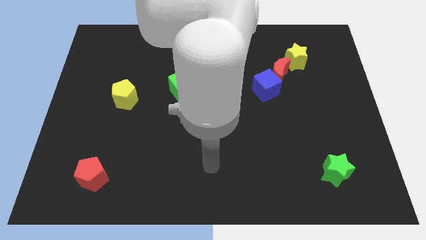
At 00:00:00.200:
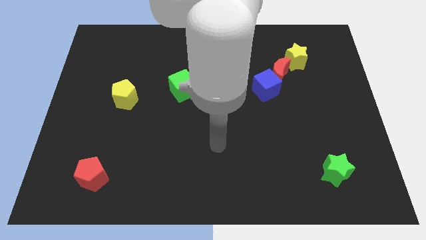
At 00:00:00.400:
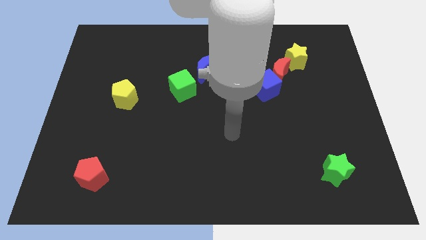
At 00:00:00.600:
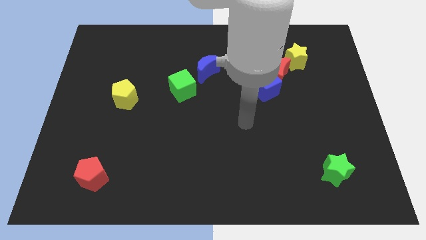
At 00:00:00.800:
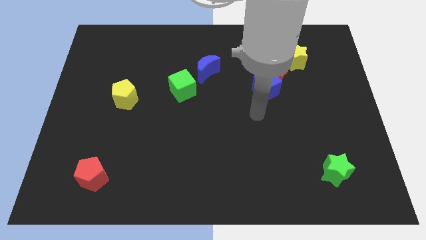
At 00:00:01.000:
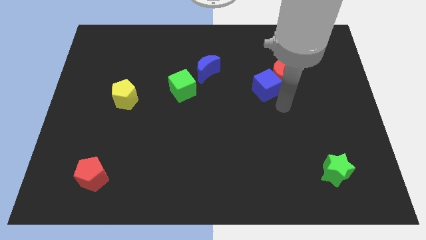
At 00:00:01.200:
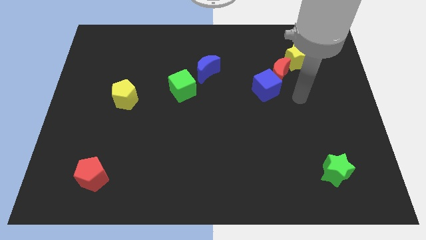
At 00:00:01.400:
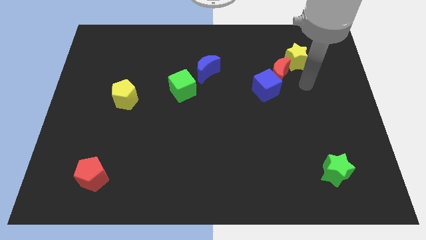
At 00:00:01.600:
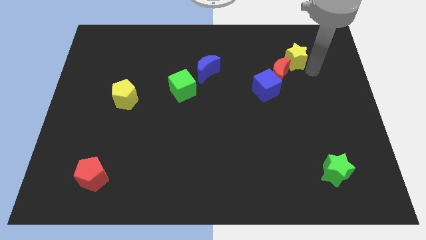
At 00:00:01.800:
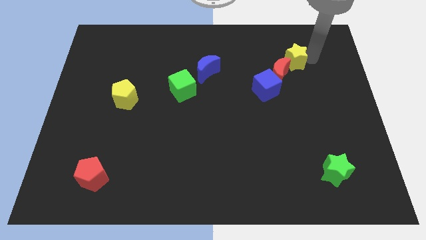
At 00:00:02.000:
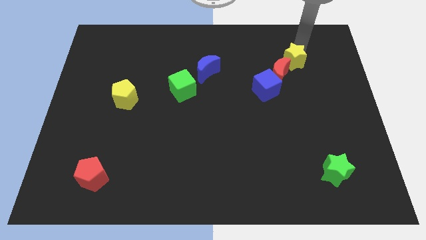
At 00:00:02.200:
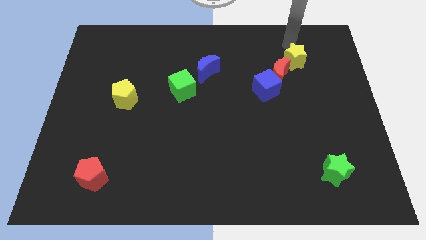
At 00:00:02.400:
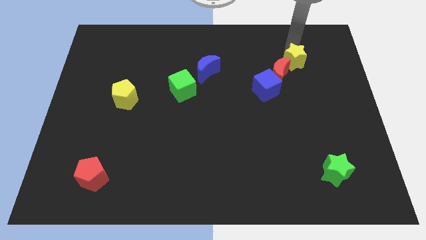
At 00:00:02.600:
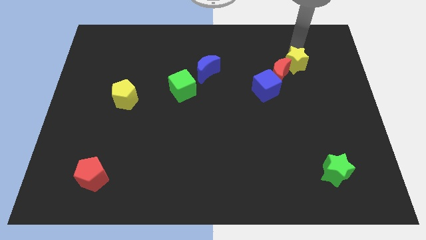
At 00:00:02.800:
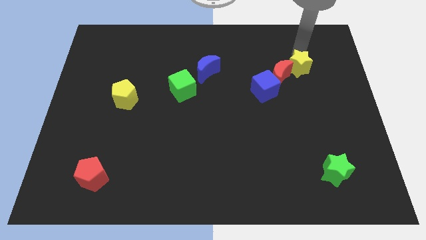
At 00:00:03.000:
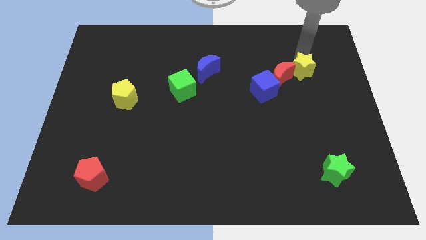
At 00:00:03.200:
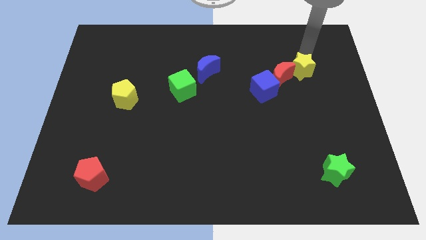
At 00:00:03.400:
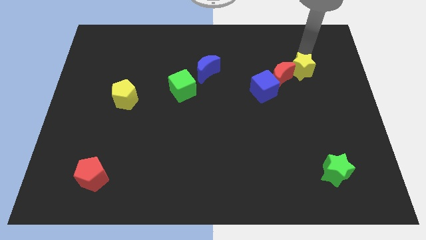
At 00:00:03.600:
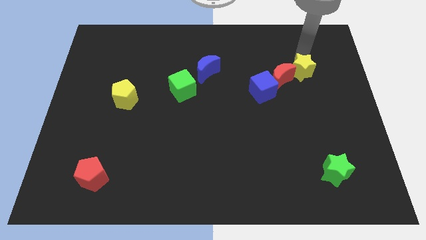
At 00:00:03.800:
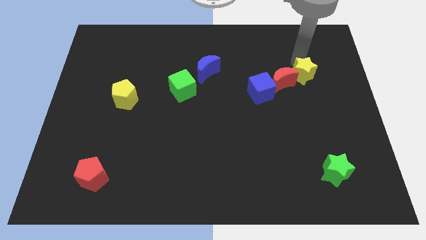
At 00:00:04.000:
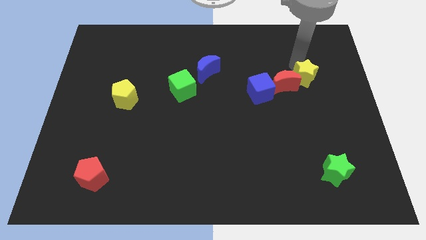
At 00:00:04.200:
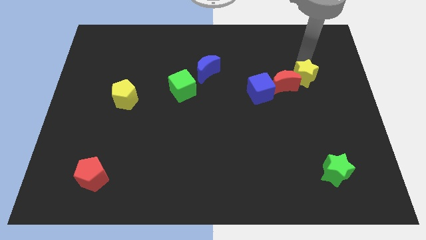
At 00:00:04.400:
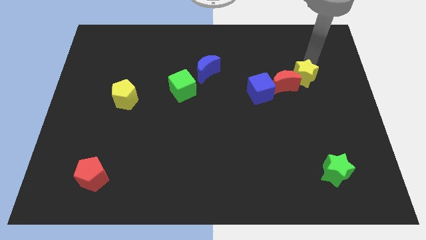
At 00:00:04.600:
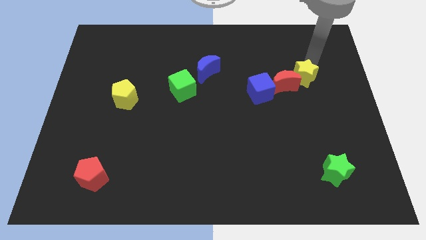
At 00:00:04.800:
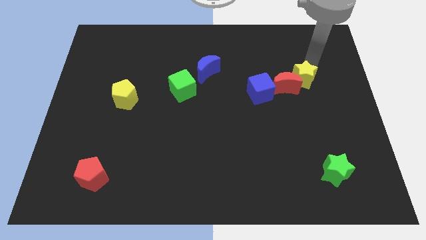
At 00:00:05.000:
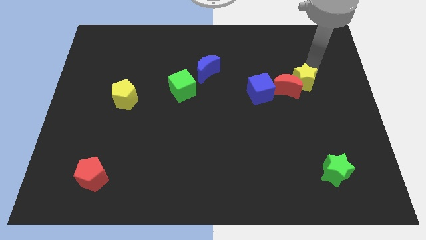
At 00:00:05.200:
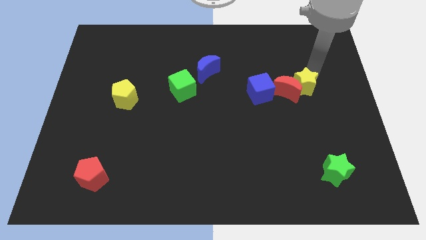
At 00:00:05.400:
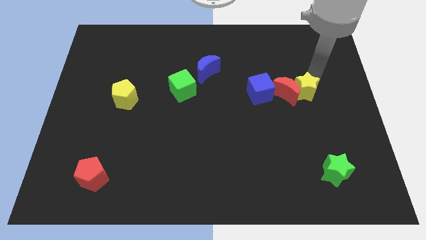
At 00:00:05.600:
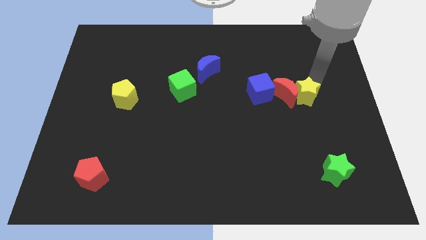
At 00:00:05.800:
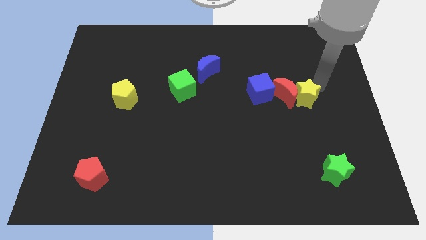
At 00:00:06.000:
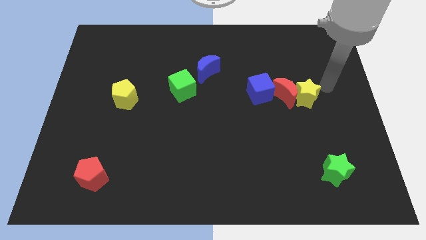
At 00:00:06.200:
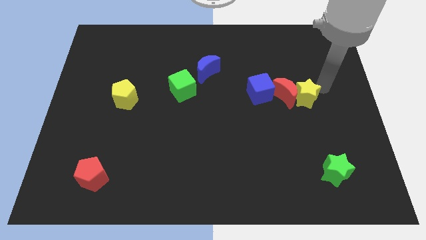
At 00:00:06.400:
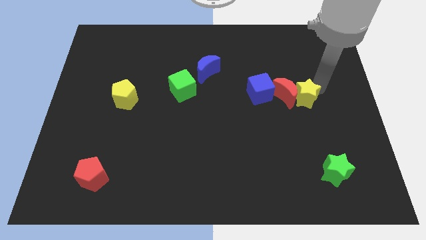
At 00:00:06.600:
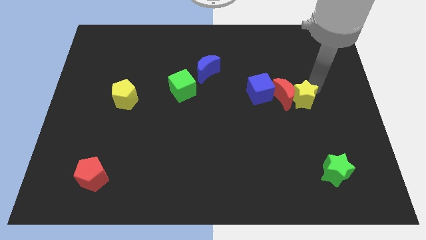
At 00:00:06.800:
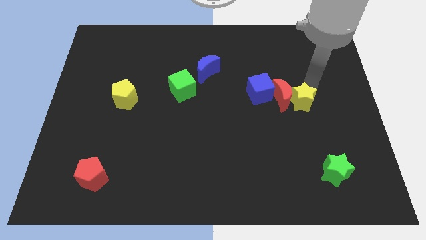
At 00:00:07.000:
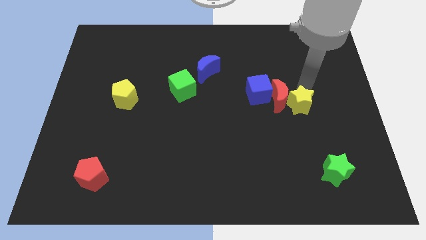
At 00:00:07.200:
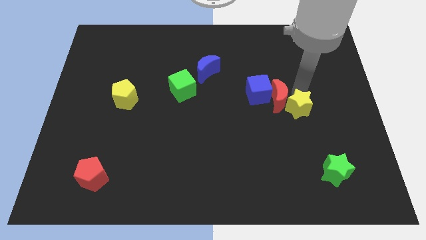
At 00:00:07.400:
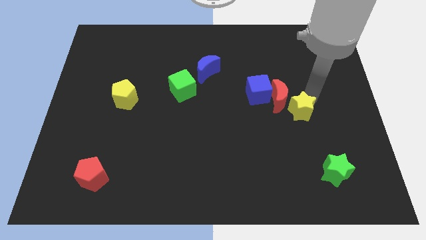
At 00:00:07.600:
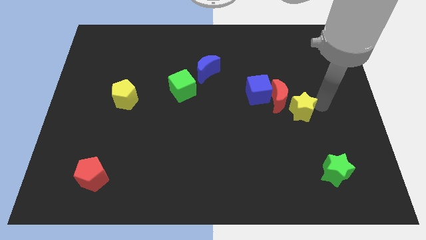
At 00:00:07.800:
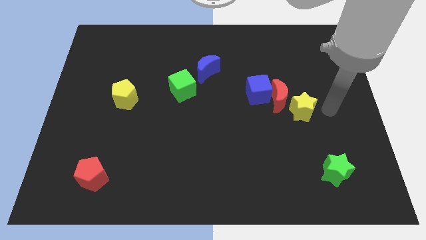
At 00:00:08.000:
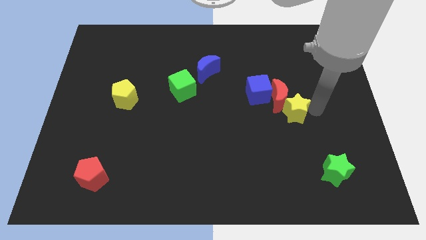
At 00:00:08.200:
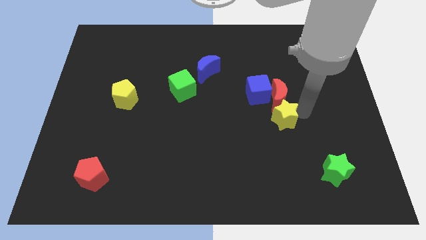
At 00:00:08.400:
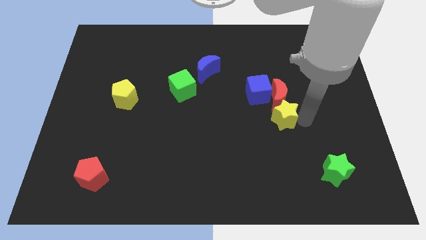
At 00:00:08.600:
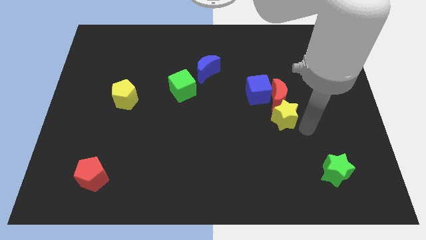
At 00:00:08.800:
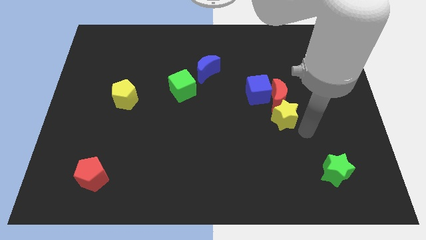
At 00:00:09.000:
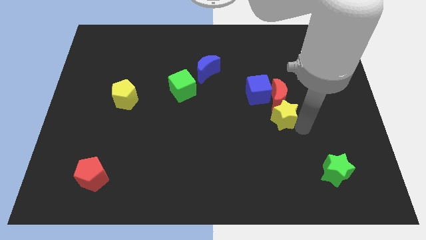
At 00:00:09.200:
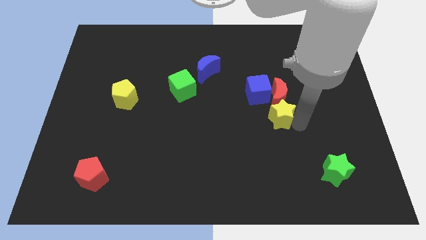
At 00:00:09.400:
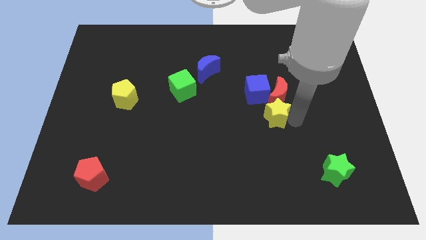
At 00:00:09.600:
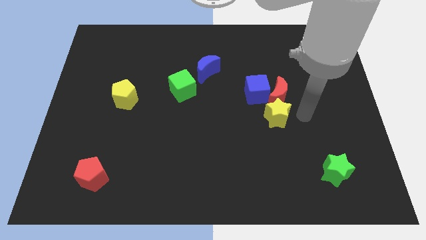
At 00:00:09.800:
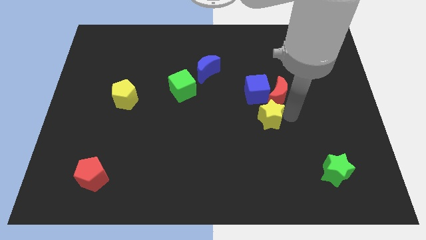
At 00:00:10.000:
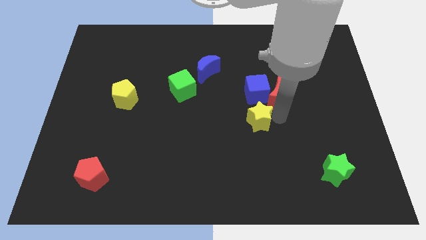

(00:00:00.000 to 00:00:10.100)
push the yellow star diagonally down and left

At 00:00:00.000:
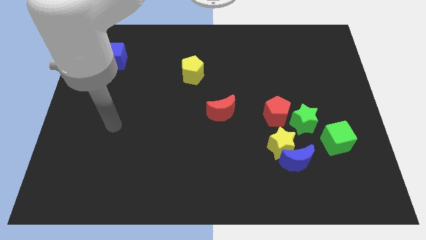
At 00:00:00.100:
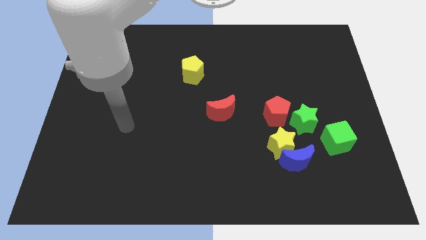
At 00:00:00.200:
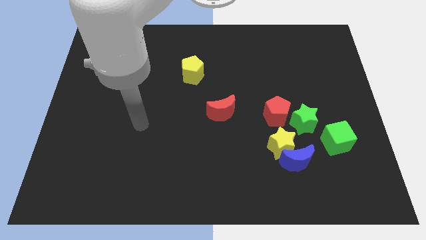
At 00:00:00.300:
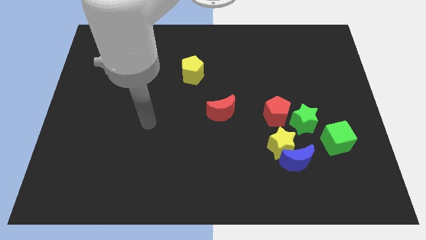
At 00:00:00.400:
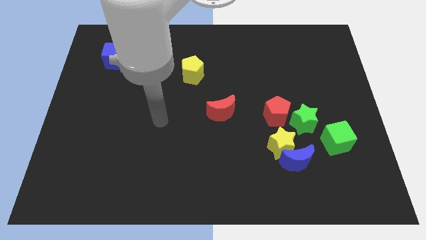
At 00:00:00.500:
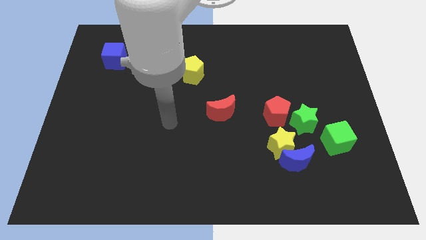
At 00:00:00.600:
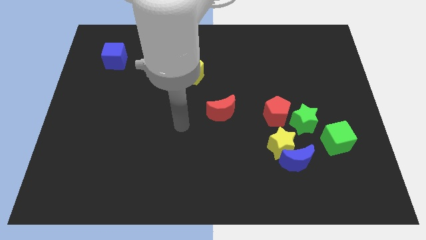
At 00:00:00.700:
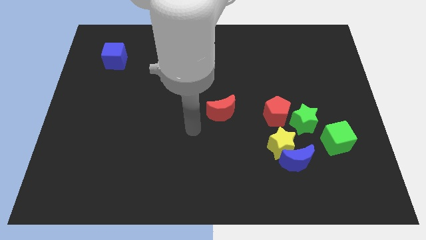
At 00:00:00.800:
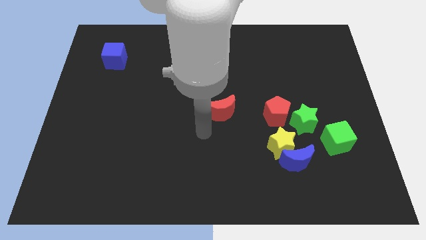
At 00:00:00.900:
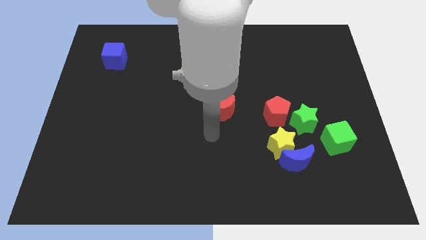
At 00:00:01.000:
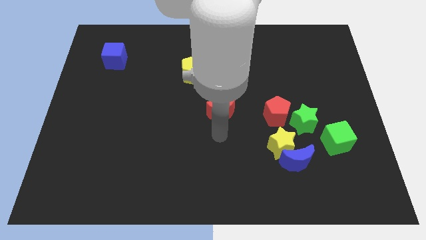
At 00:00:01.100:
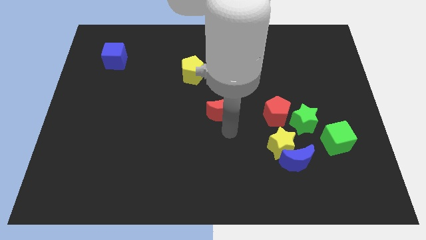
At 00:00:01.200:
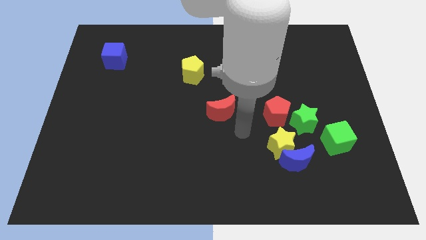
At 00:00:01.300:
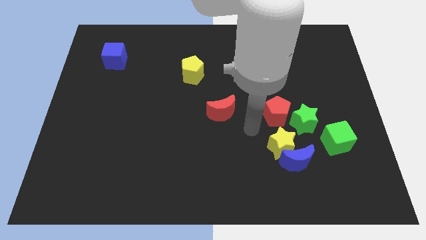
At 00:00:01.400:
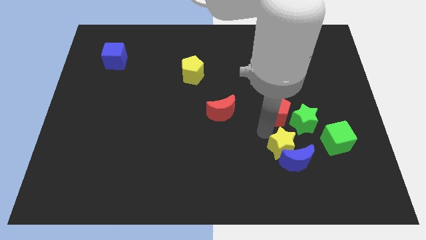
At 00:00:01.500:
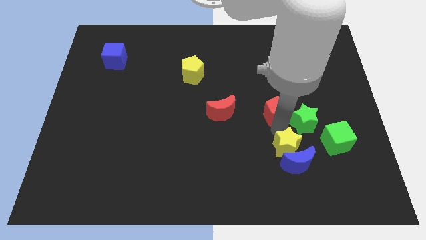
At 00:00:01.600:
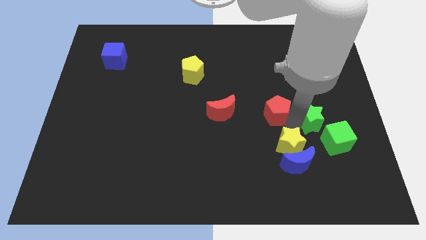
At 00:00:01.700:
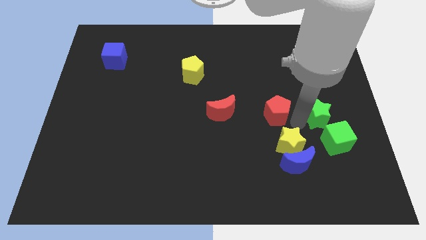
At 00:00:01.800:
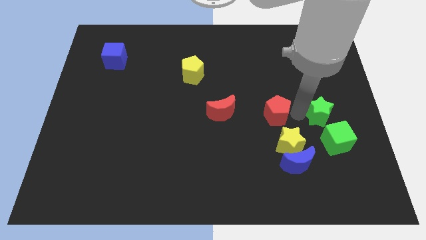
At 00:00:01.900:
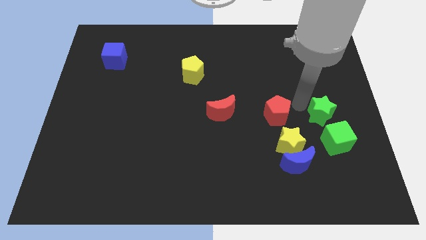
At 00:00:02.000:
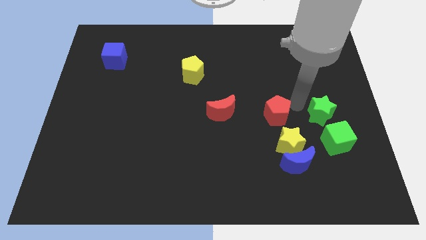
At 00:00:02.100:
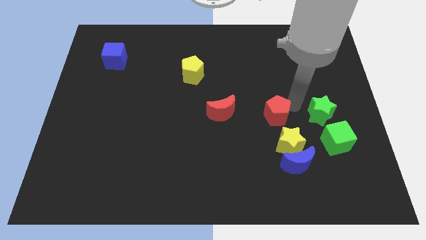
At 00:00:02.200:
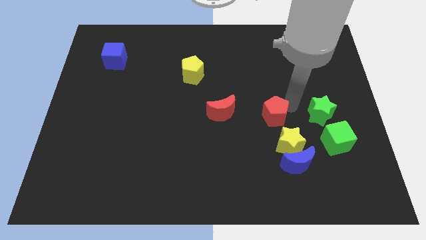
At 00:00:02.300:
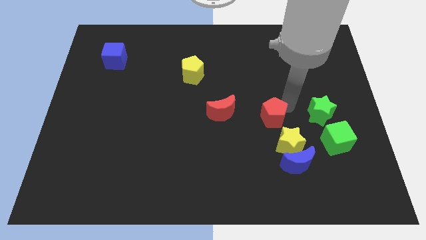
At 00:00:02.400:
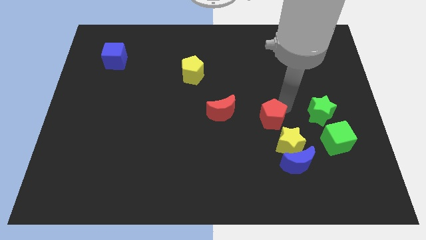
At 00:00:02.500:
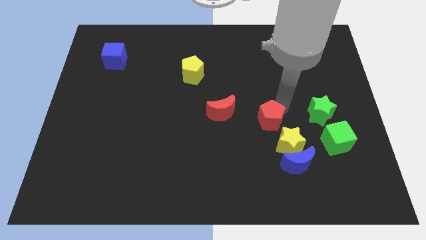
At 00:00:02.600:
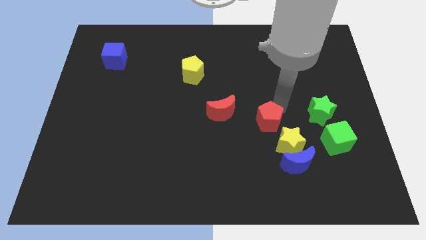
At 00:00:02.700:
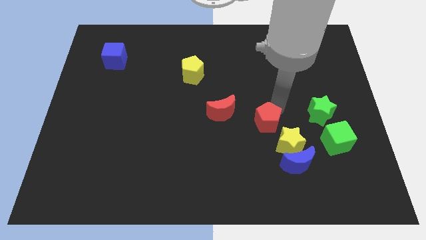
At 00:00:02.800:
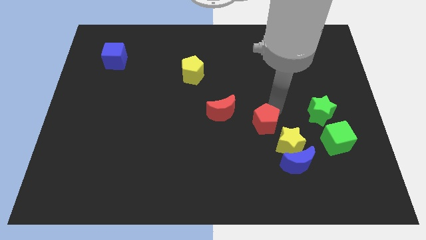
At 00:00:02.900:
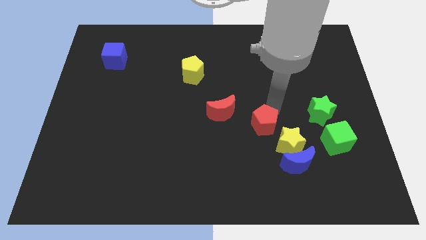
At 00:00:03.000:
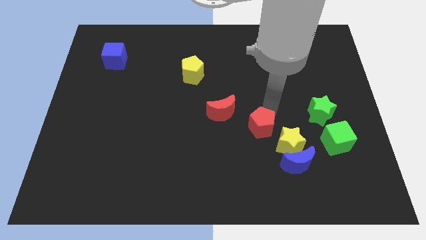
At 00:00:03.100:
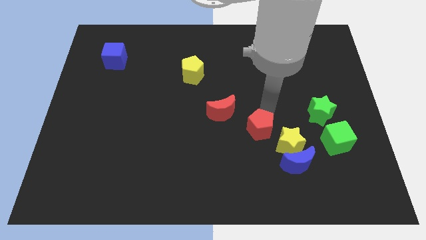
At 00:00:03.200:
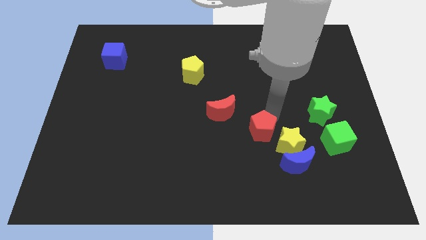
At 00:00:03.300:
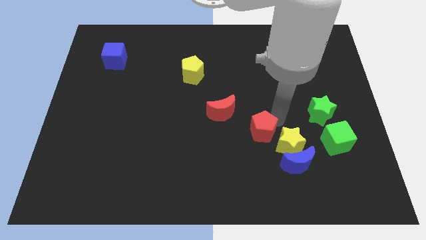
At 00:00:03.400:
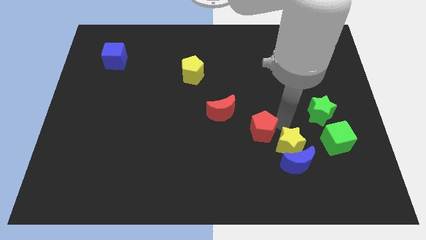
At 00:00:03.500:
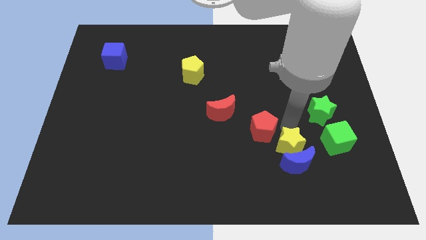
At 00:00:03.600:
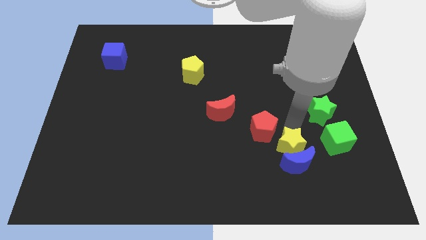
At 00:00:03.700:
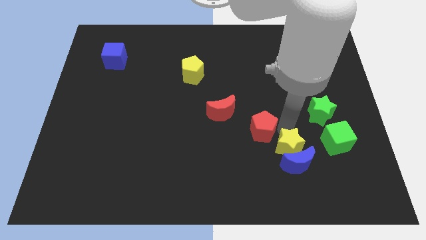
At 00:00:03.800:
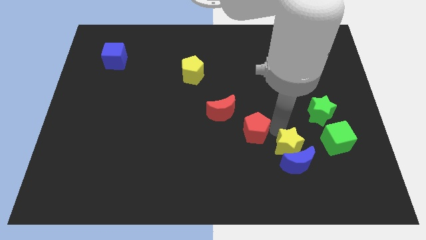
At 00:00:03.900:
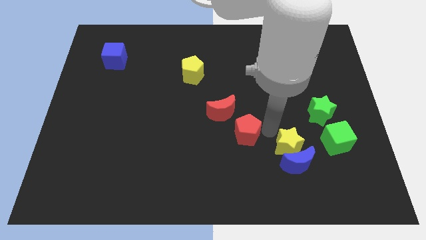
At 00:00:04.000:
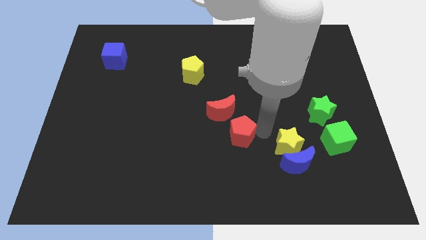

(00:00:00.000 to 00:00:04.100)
slide the red pentagon slightly to the left
